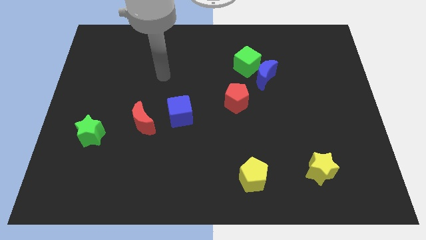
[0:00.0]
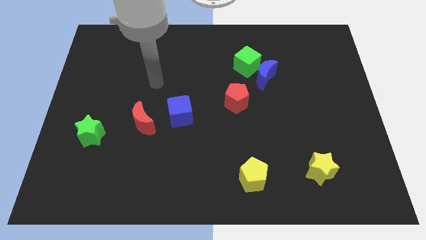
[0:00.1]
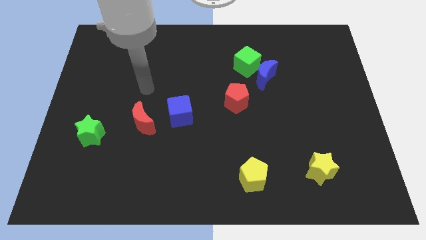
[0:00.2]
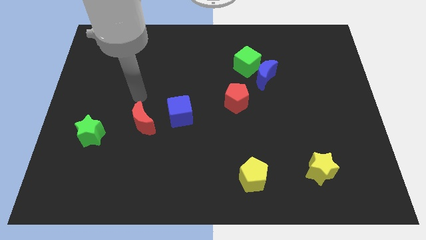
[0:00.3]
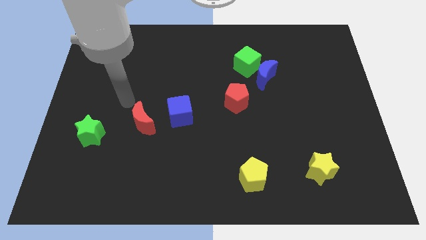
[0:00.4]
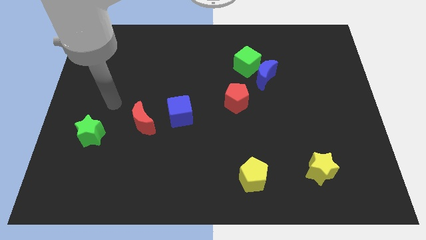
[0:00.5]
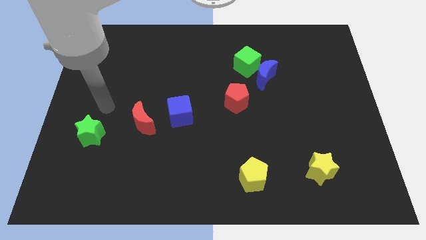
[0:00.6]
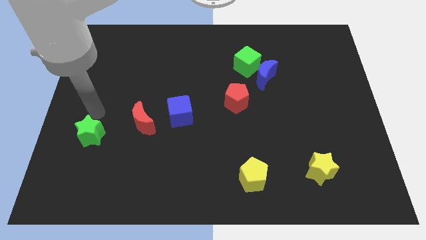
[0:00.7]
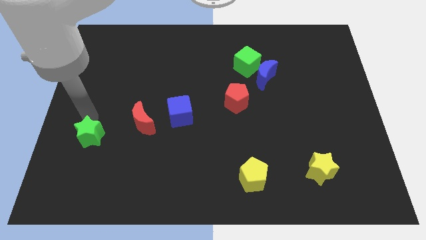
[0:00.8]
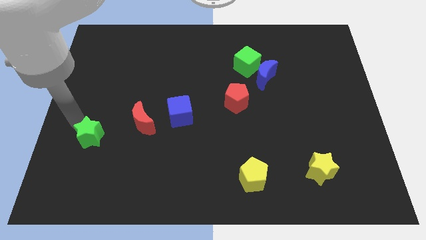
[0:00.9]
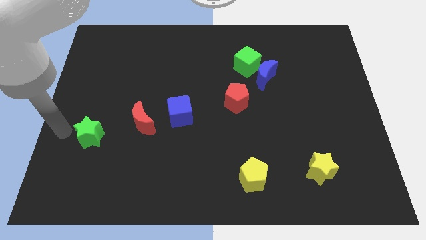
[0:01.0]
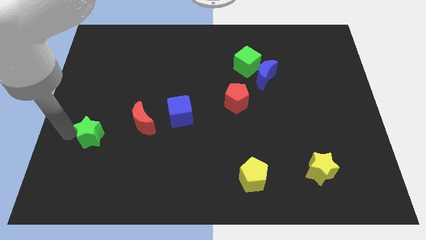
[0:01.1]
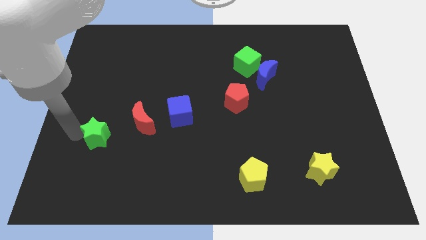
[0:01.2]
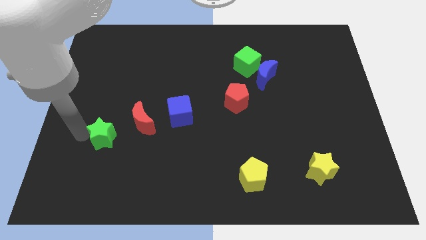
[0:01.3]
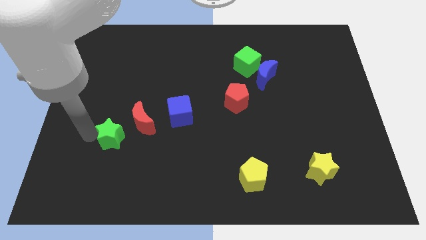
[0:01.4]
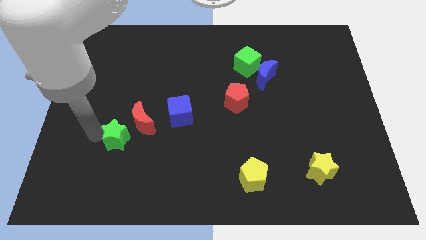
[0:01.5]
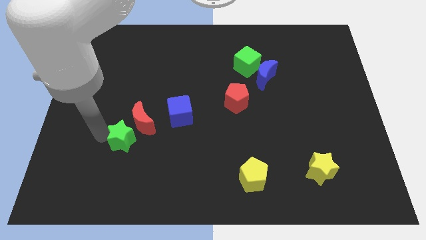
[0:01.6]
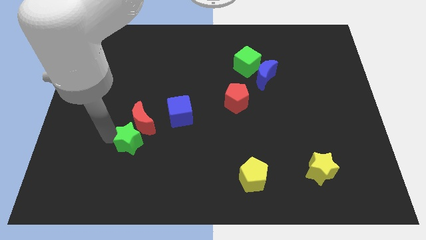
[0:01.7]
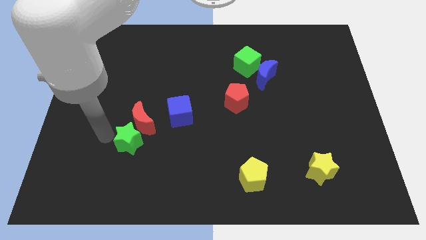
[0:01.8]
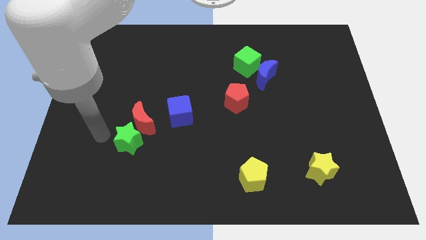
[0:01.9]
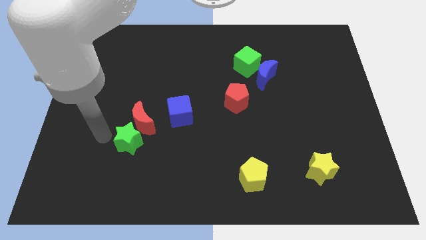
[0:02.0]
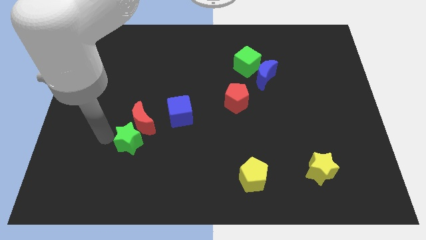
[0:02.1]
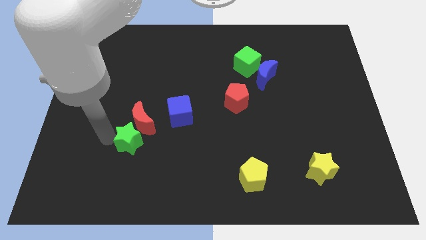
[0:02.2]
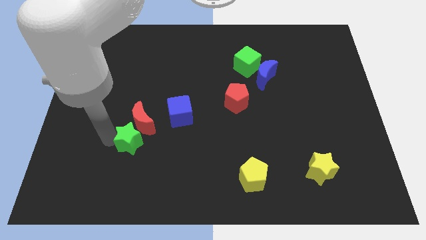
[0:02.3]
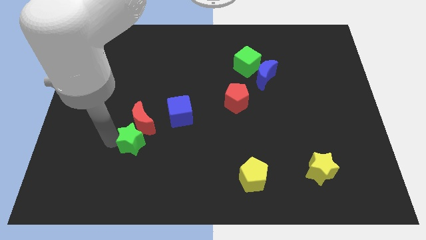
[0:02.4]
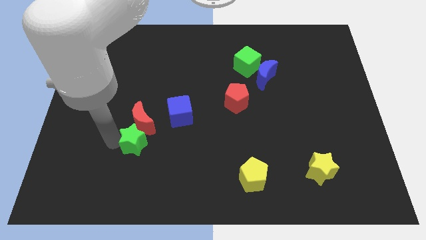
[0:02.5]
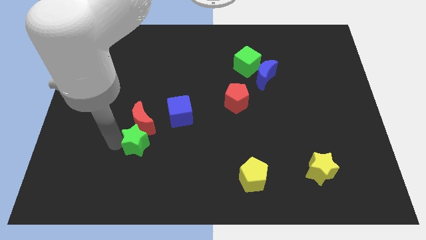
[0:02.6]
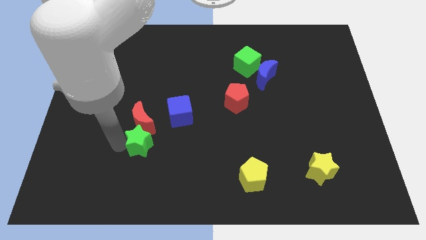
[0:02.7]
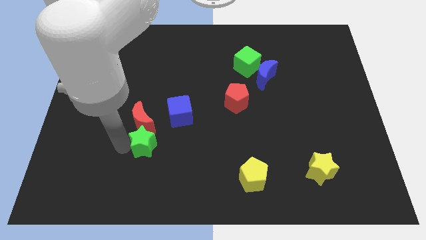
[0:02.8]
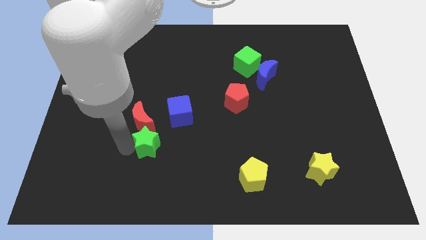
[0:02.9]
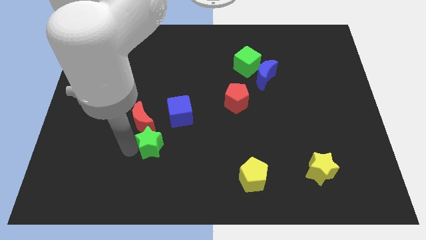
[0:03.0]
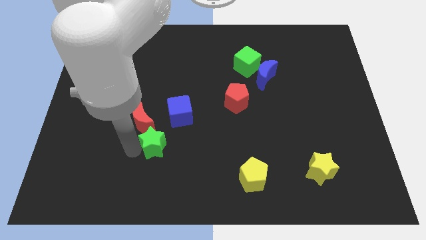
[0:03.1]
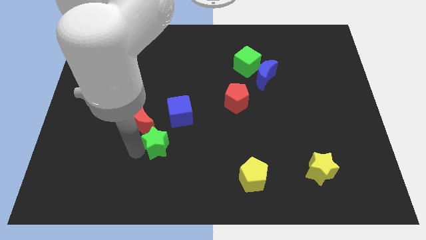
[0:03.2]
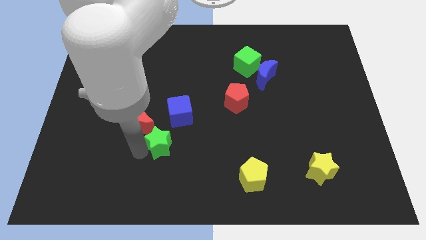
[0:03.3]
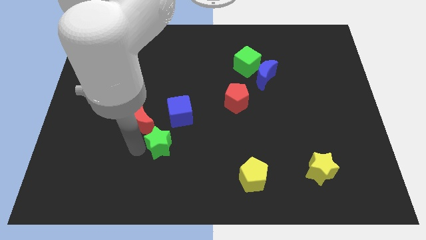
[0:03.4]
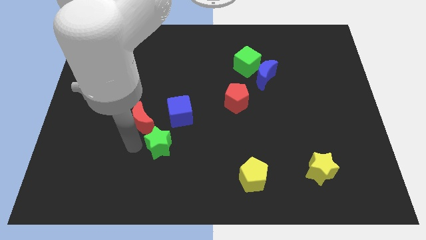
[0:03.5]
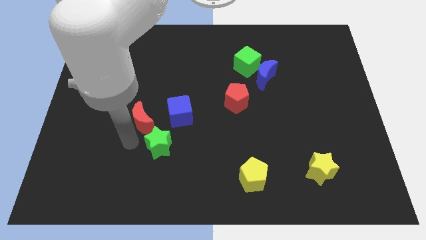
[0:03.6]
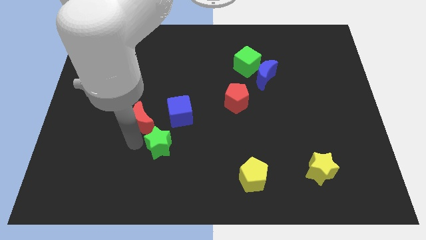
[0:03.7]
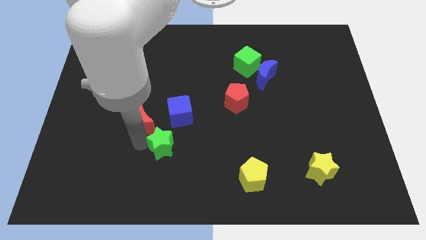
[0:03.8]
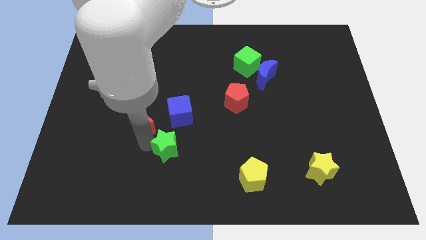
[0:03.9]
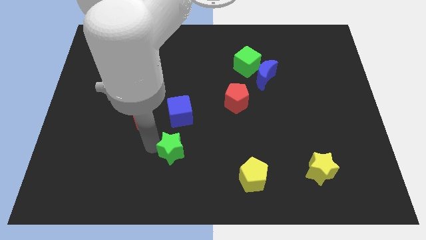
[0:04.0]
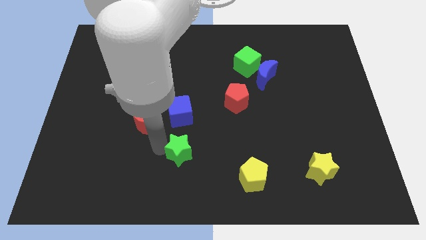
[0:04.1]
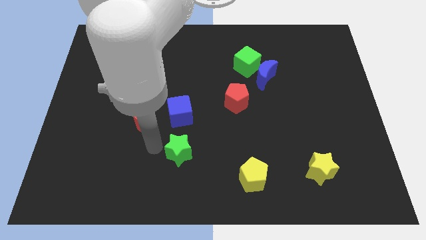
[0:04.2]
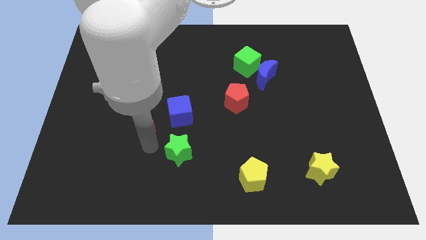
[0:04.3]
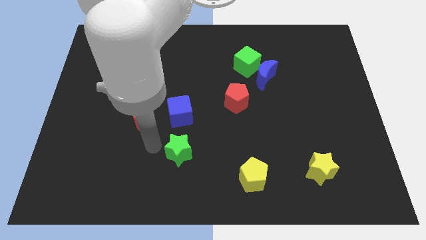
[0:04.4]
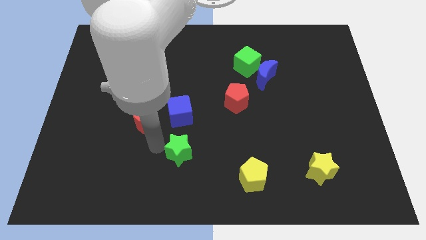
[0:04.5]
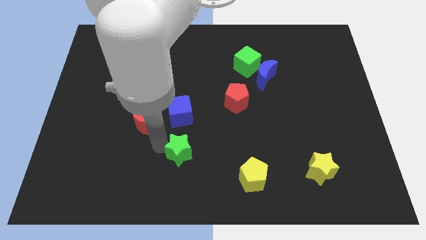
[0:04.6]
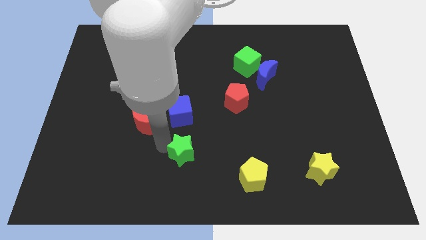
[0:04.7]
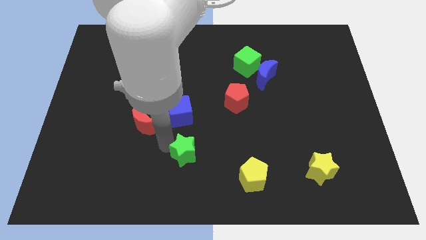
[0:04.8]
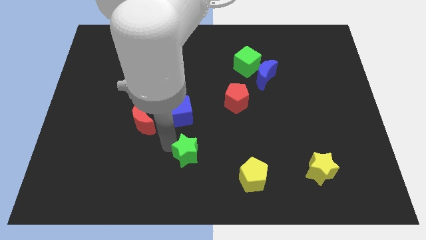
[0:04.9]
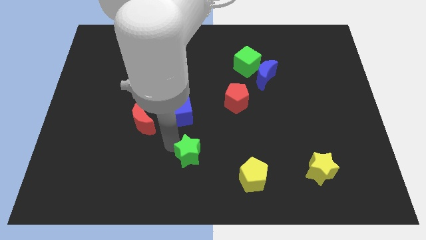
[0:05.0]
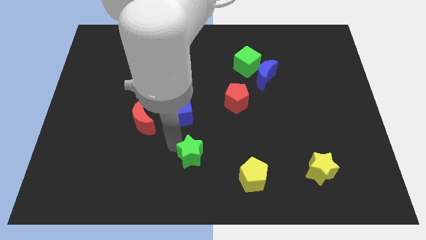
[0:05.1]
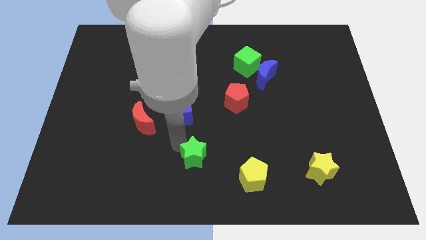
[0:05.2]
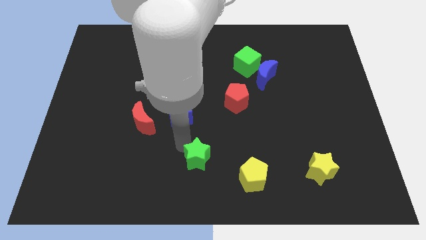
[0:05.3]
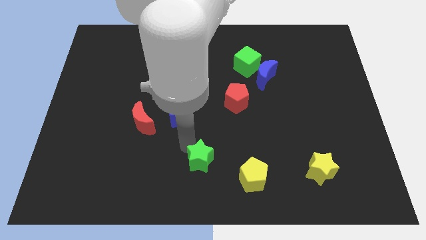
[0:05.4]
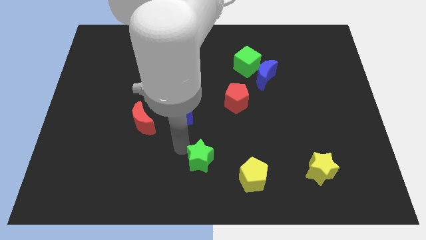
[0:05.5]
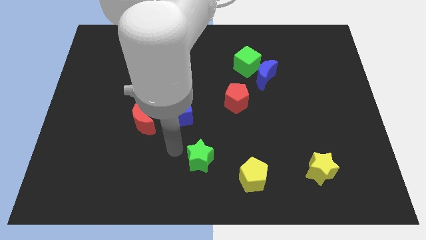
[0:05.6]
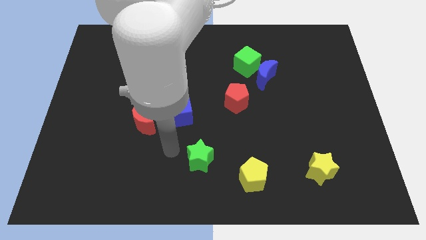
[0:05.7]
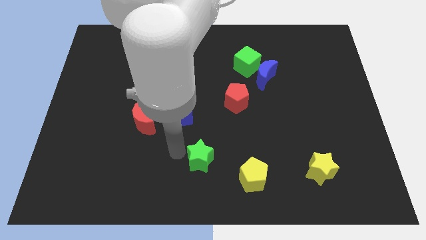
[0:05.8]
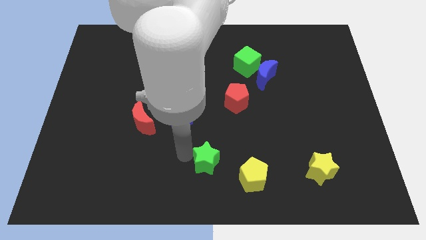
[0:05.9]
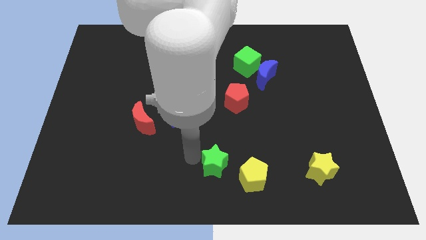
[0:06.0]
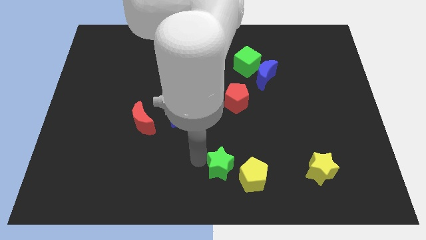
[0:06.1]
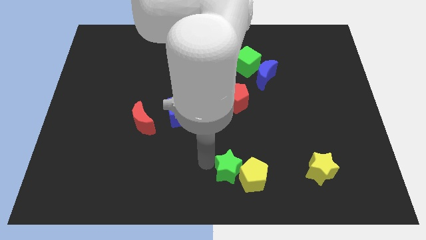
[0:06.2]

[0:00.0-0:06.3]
move the green star to the yellow pentagon

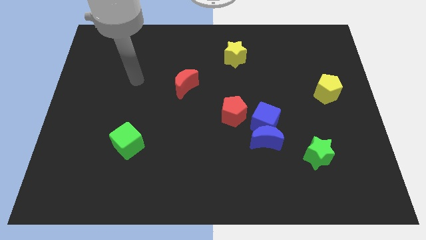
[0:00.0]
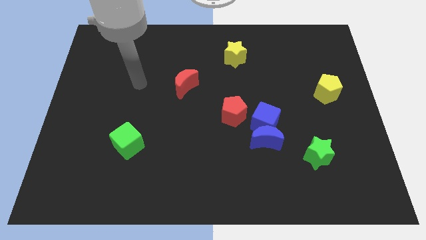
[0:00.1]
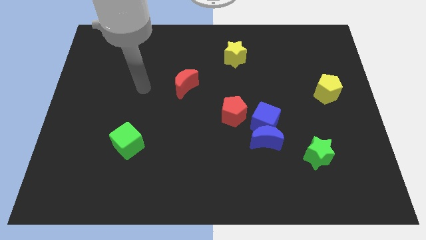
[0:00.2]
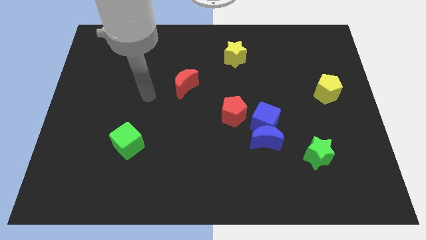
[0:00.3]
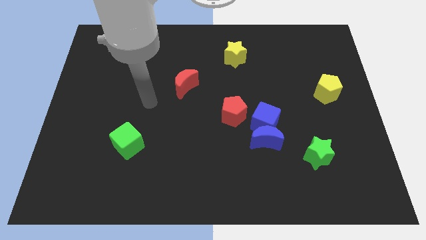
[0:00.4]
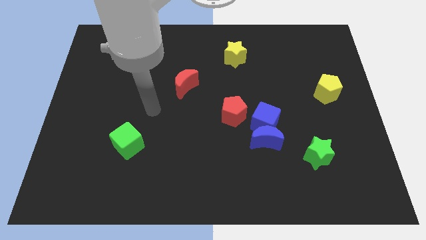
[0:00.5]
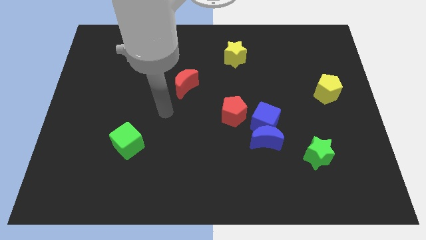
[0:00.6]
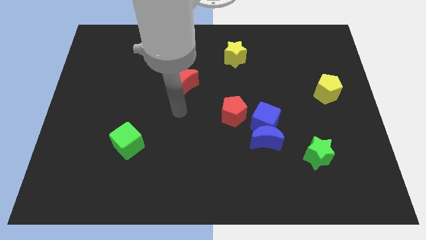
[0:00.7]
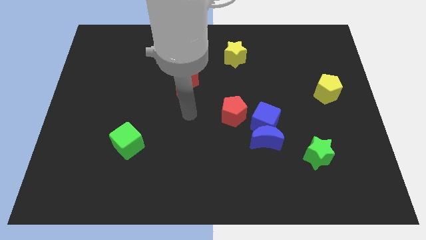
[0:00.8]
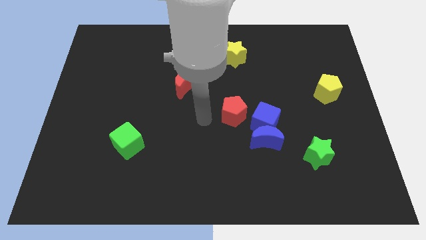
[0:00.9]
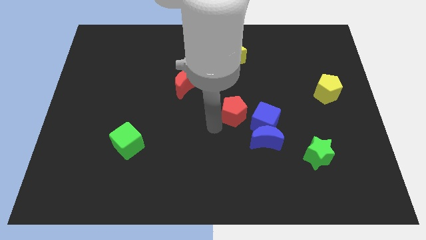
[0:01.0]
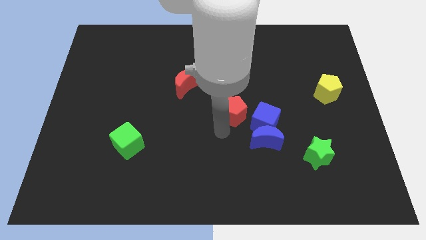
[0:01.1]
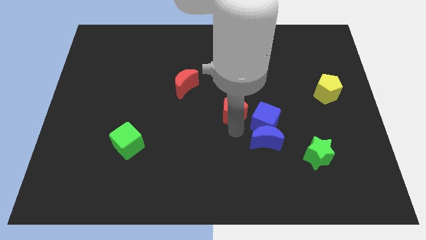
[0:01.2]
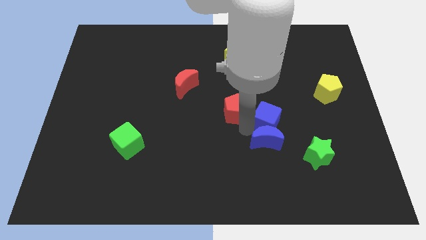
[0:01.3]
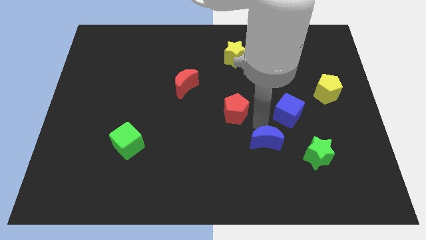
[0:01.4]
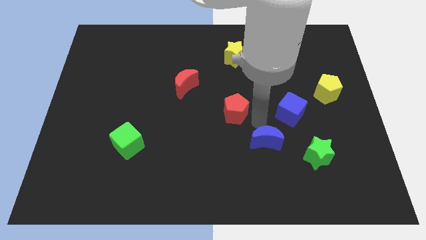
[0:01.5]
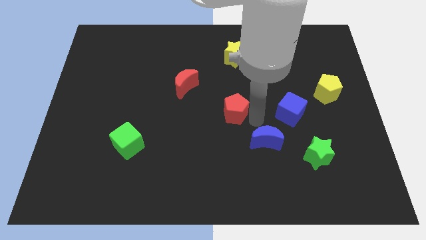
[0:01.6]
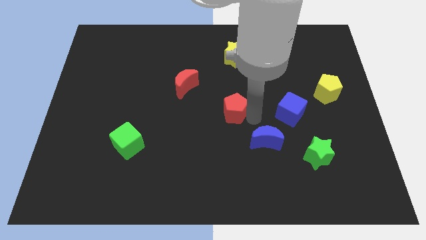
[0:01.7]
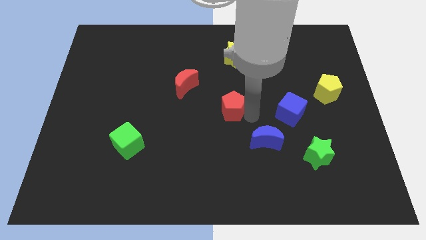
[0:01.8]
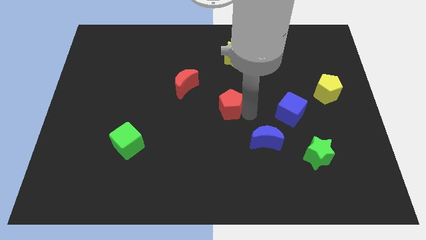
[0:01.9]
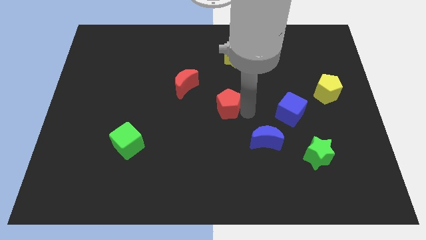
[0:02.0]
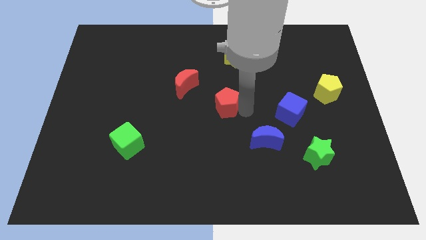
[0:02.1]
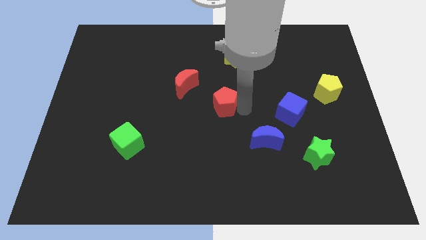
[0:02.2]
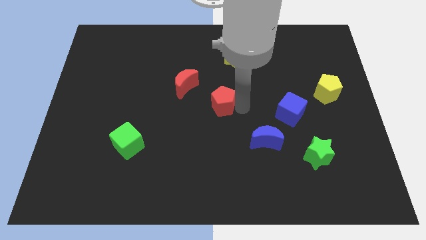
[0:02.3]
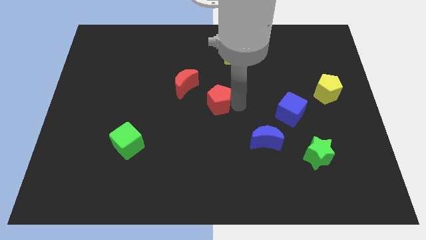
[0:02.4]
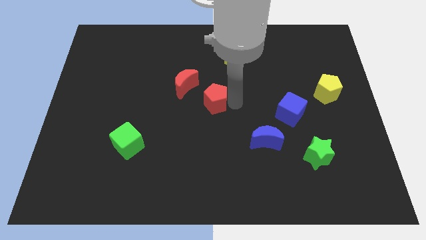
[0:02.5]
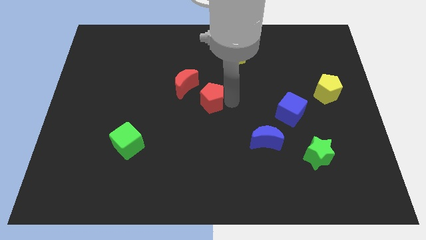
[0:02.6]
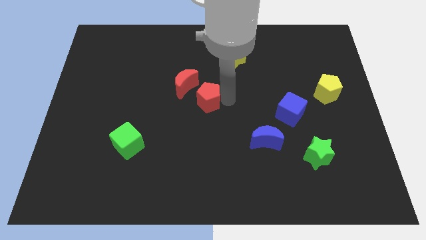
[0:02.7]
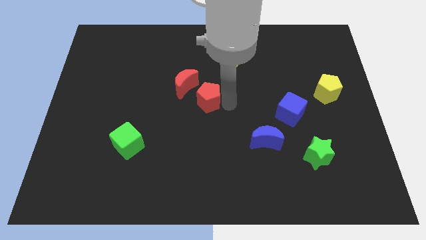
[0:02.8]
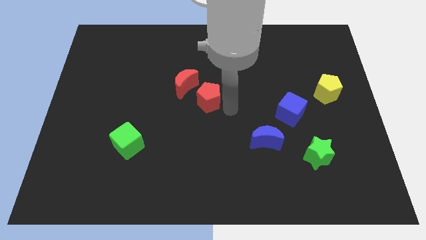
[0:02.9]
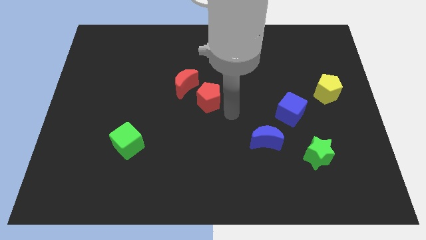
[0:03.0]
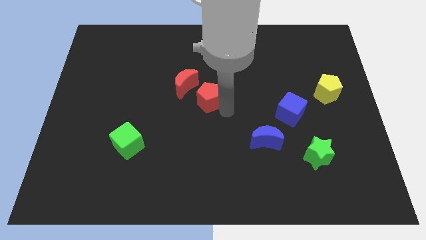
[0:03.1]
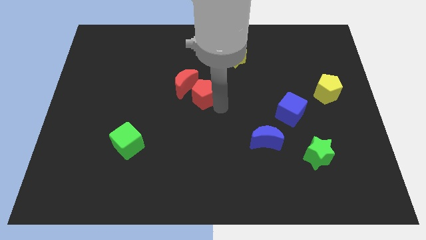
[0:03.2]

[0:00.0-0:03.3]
move the red pentagon towards the red moon
